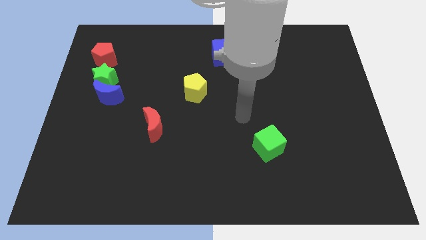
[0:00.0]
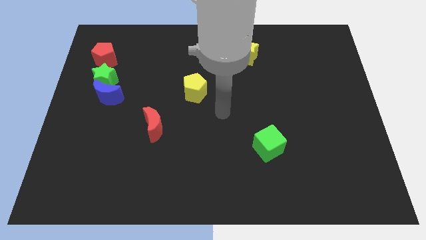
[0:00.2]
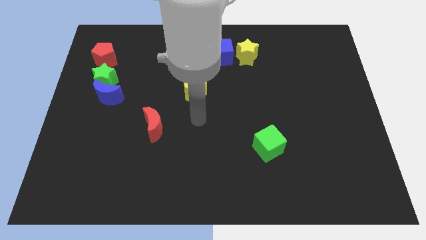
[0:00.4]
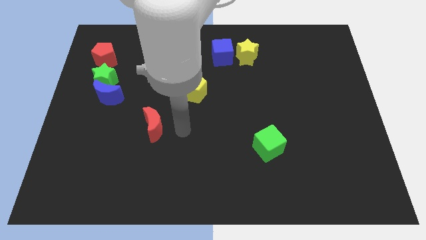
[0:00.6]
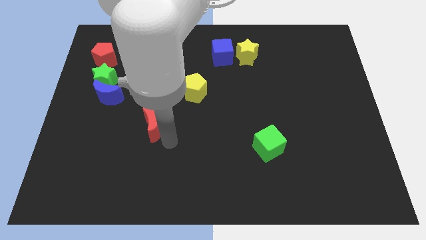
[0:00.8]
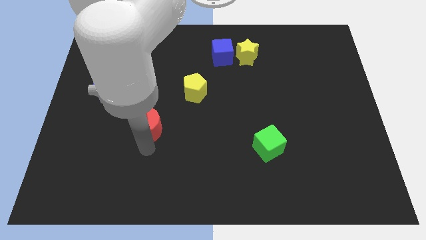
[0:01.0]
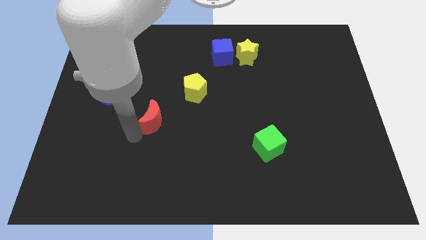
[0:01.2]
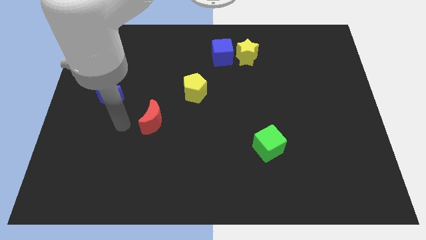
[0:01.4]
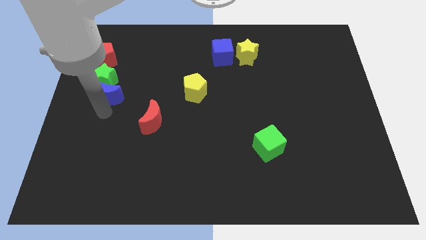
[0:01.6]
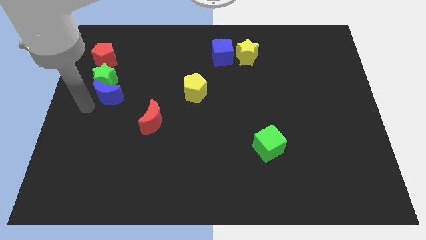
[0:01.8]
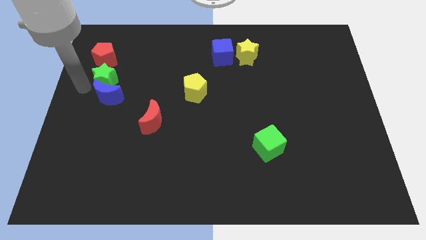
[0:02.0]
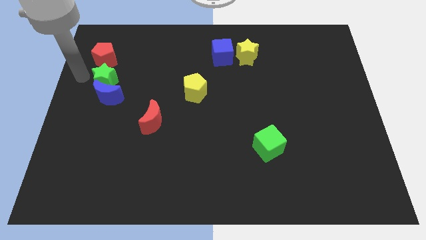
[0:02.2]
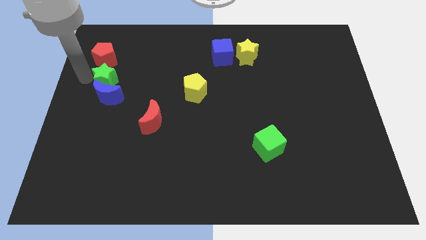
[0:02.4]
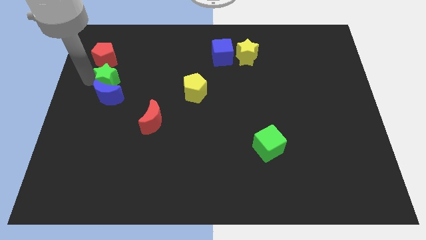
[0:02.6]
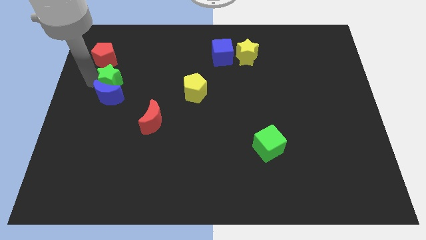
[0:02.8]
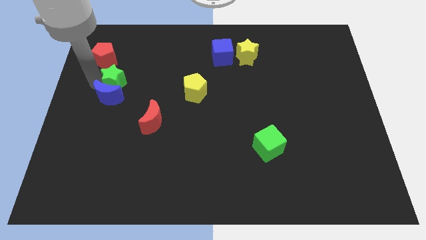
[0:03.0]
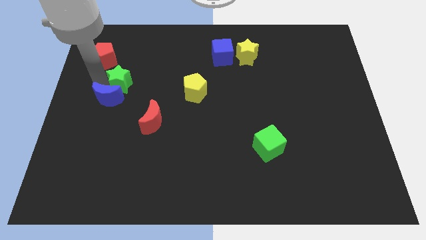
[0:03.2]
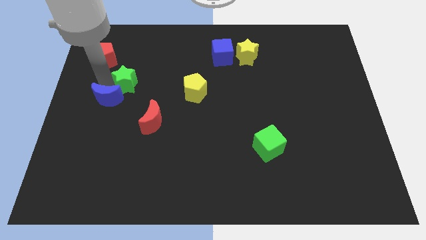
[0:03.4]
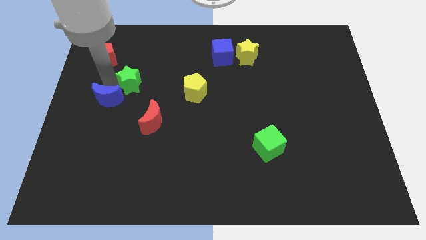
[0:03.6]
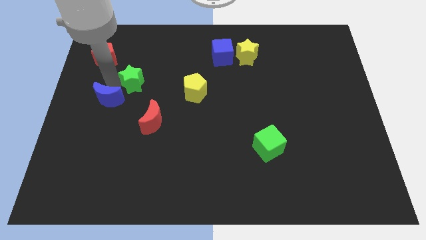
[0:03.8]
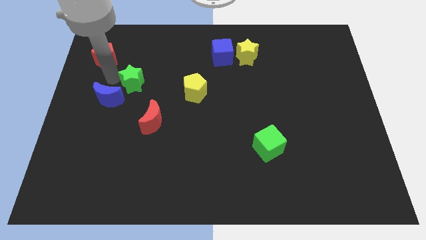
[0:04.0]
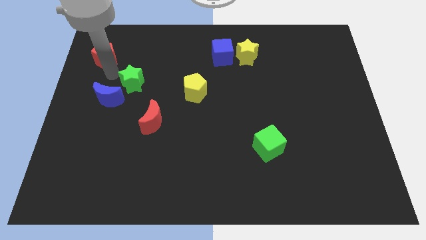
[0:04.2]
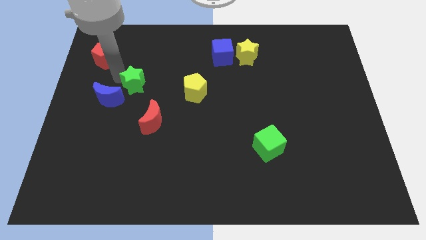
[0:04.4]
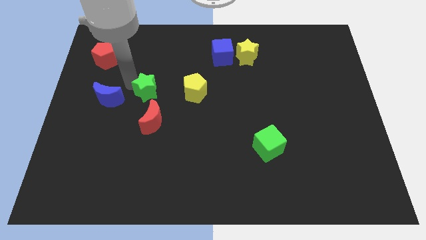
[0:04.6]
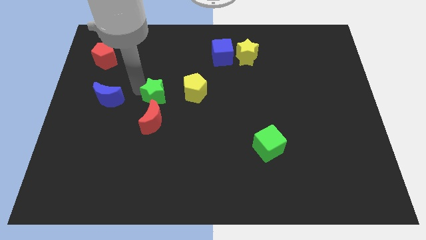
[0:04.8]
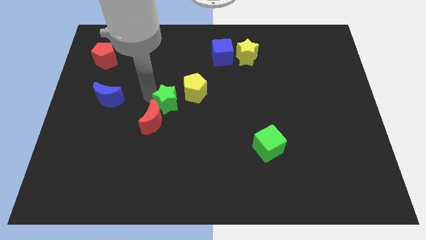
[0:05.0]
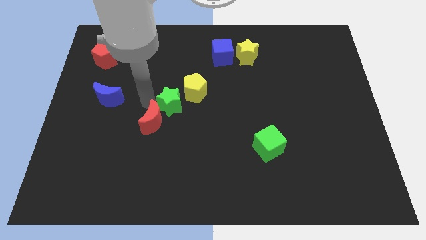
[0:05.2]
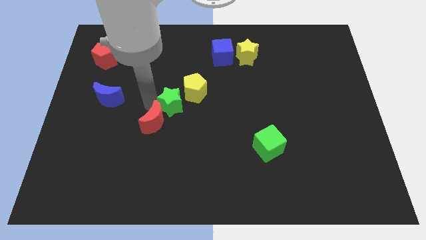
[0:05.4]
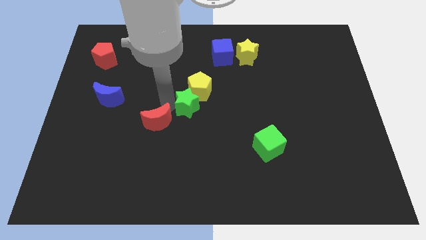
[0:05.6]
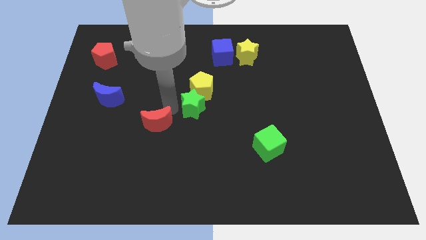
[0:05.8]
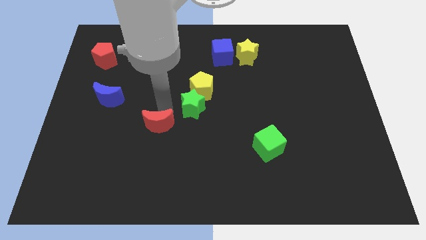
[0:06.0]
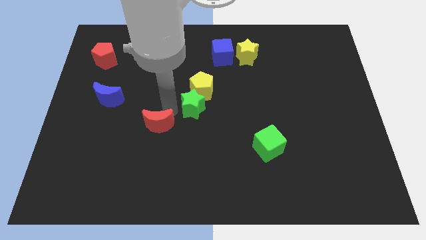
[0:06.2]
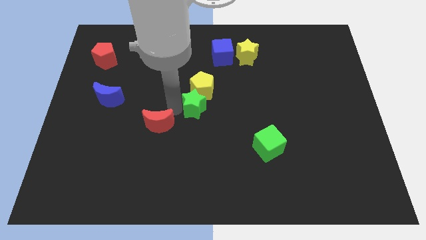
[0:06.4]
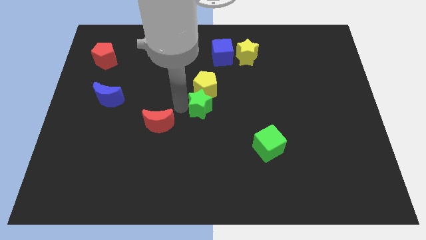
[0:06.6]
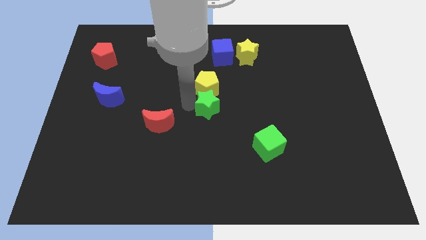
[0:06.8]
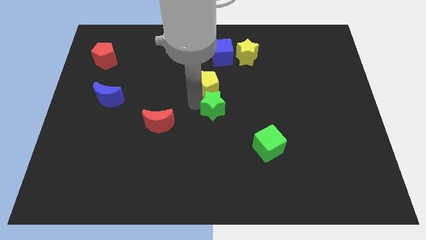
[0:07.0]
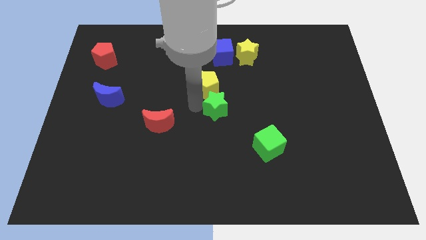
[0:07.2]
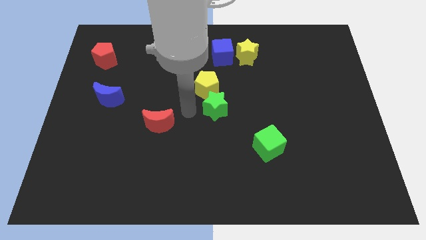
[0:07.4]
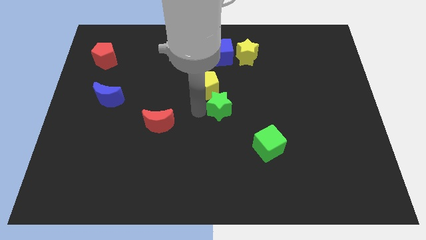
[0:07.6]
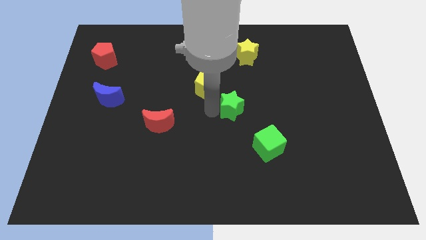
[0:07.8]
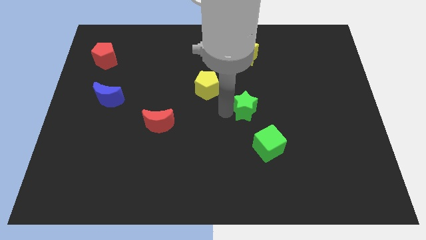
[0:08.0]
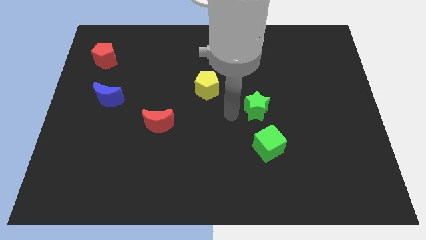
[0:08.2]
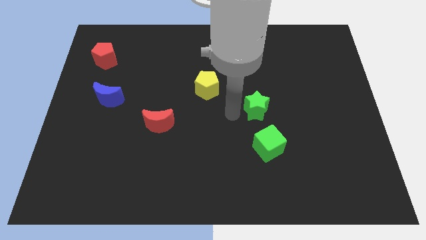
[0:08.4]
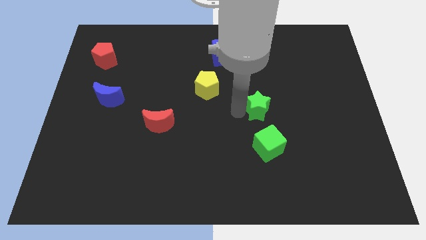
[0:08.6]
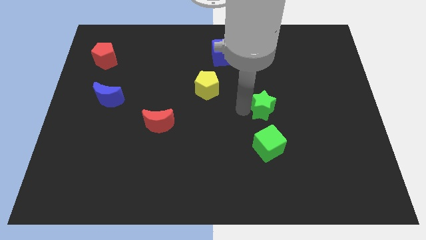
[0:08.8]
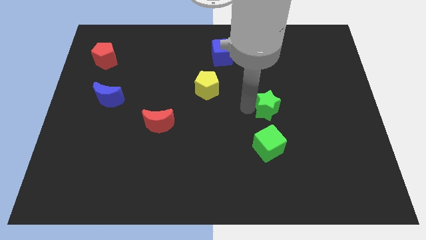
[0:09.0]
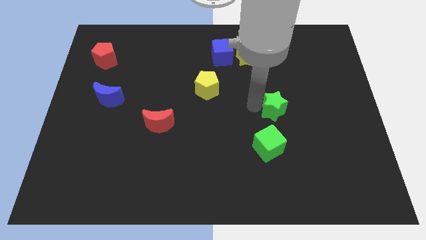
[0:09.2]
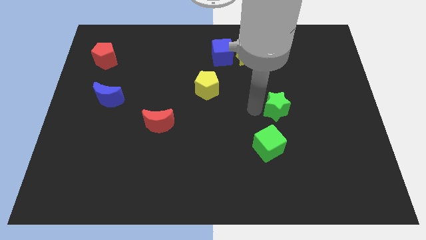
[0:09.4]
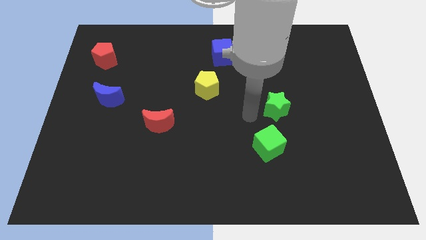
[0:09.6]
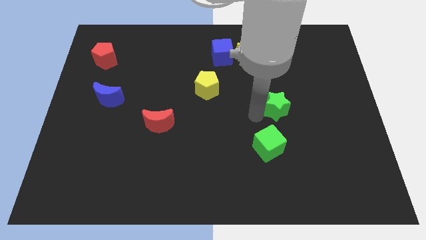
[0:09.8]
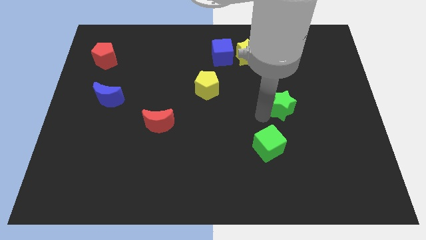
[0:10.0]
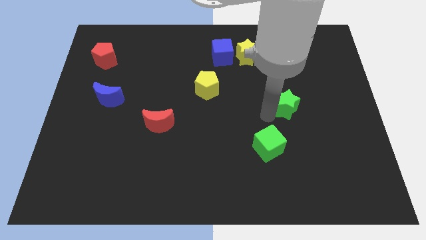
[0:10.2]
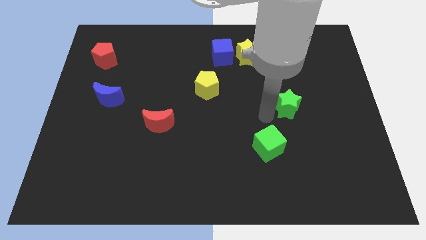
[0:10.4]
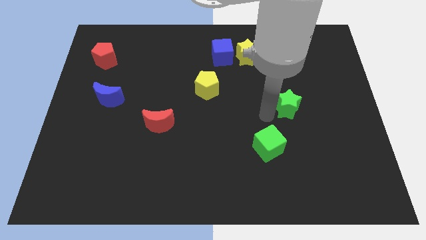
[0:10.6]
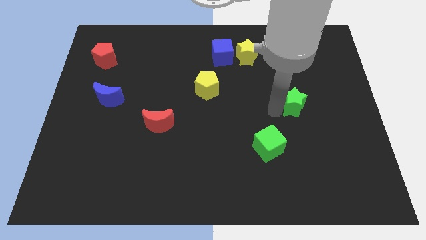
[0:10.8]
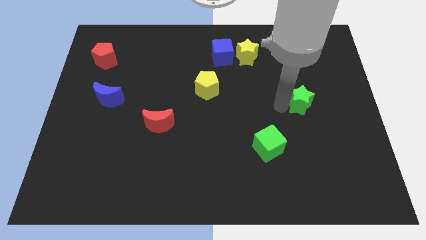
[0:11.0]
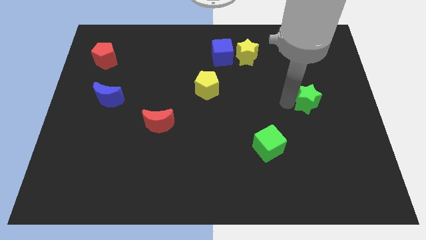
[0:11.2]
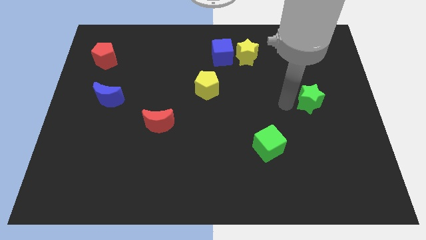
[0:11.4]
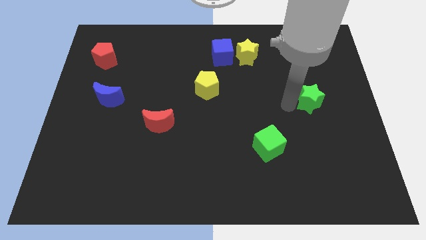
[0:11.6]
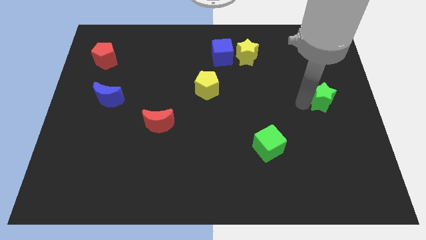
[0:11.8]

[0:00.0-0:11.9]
move the green star to the right side
